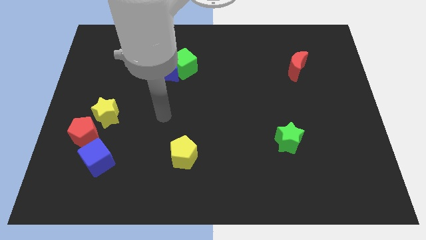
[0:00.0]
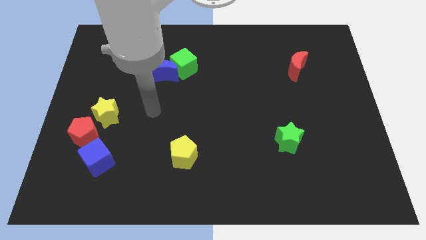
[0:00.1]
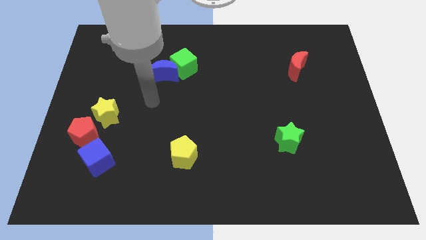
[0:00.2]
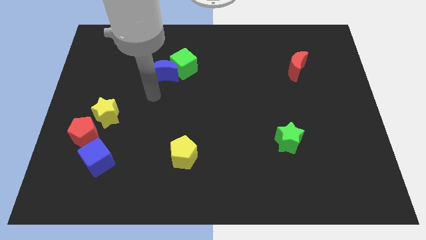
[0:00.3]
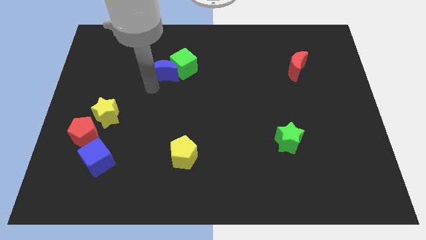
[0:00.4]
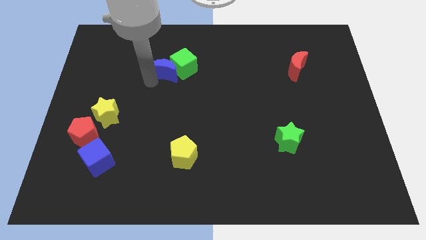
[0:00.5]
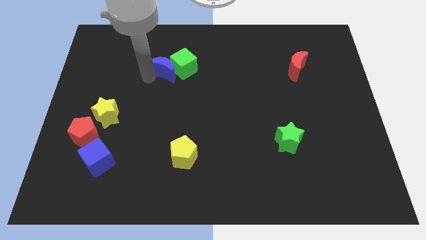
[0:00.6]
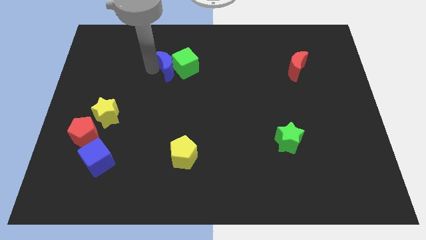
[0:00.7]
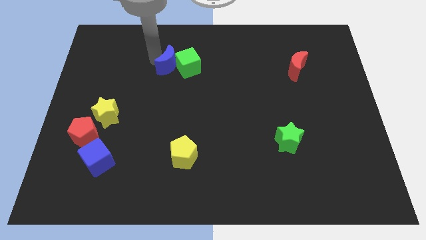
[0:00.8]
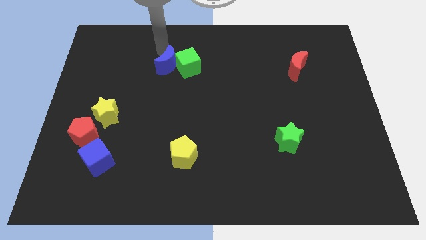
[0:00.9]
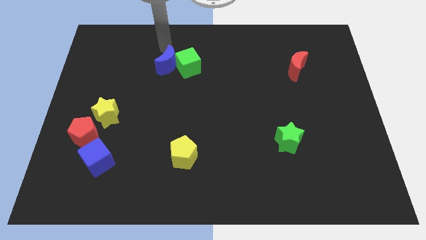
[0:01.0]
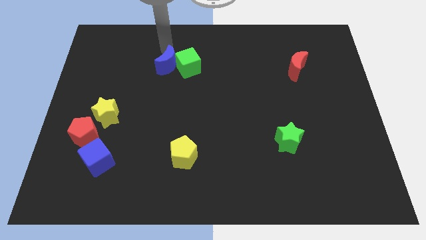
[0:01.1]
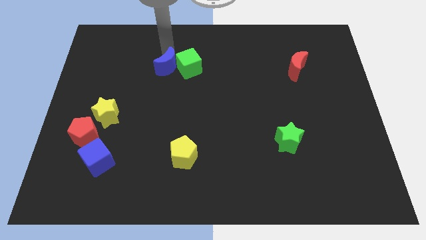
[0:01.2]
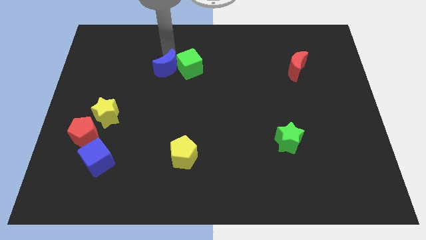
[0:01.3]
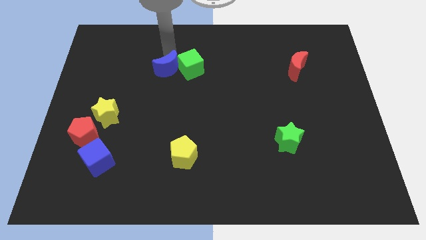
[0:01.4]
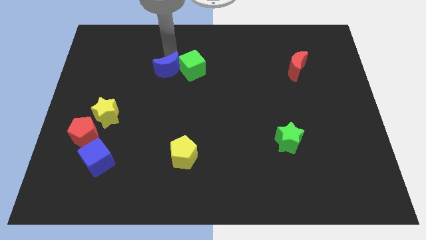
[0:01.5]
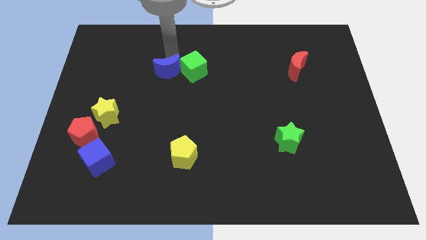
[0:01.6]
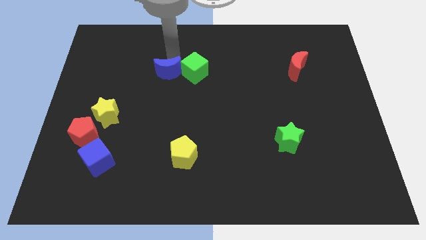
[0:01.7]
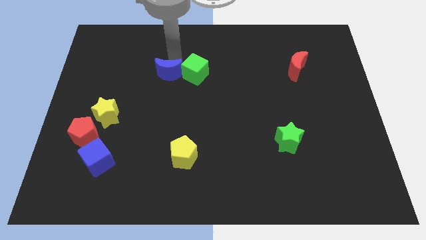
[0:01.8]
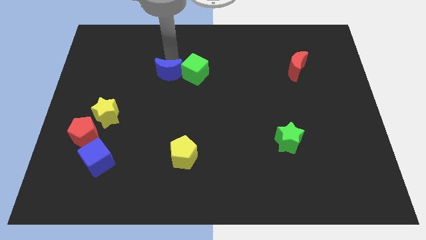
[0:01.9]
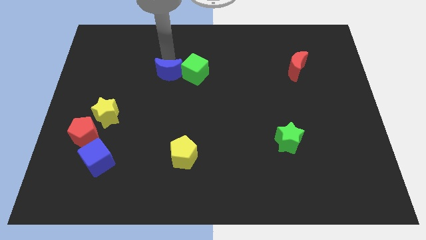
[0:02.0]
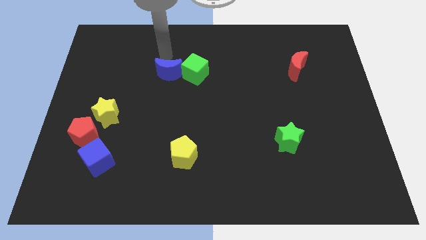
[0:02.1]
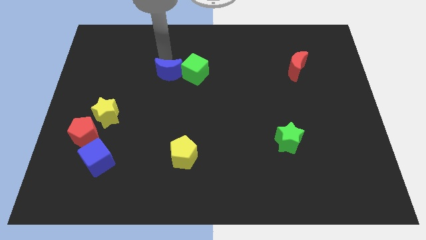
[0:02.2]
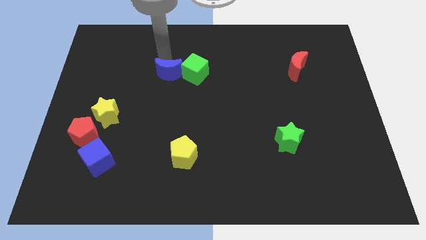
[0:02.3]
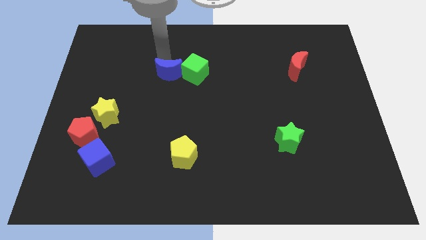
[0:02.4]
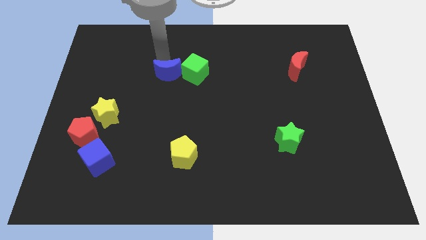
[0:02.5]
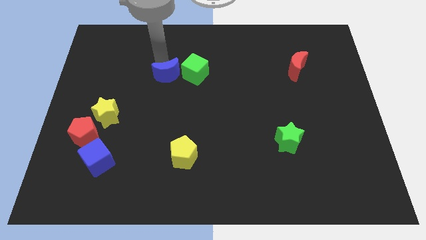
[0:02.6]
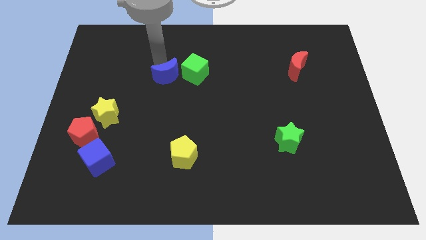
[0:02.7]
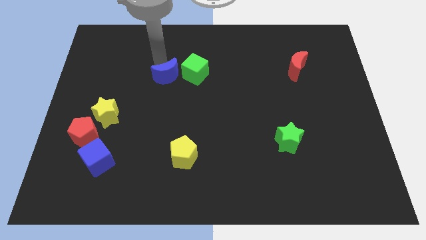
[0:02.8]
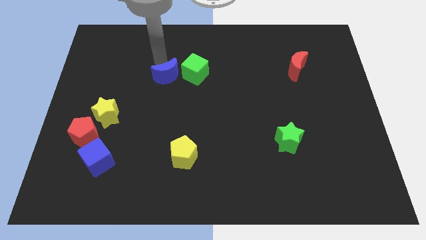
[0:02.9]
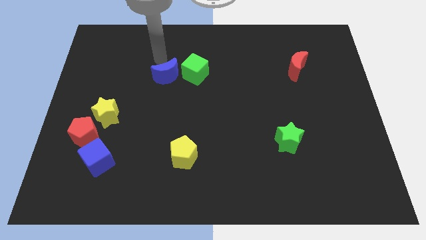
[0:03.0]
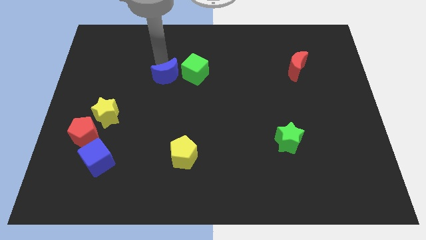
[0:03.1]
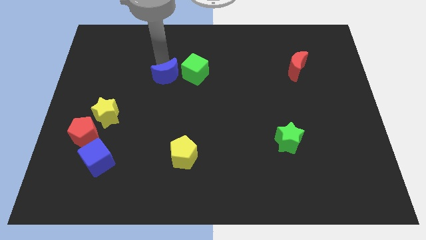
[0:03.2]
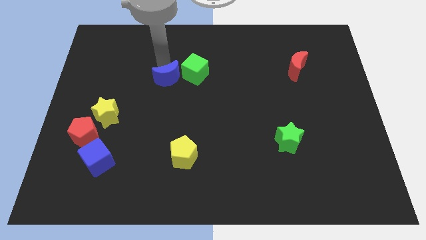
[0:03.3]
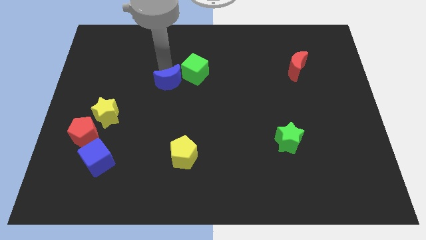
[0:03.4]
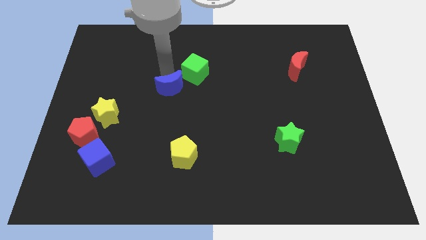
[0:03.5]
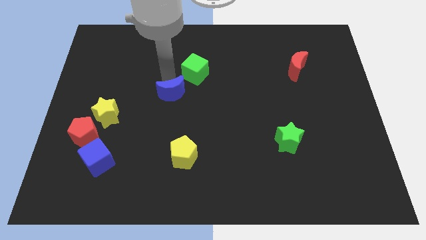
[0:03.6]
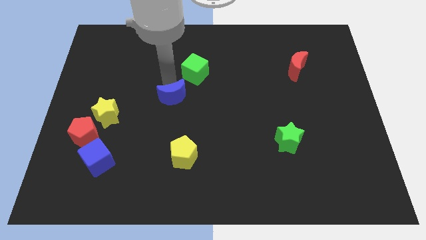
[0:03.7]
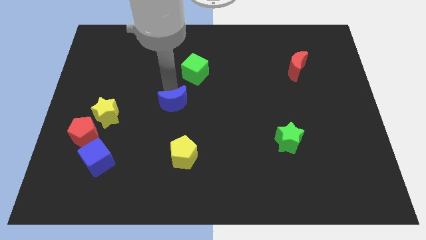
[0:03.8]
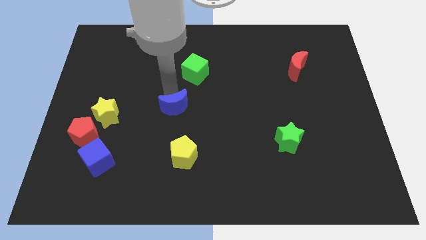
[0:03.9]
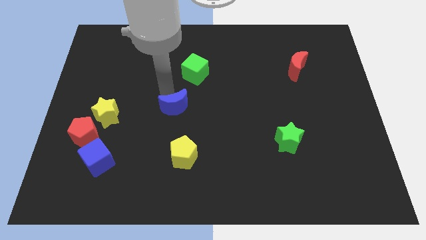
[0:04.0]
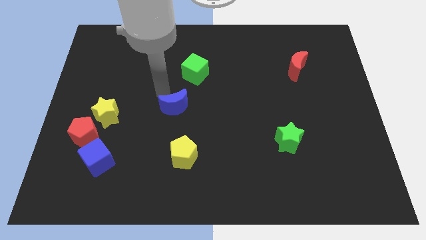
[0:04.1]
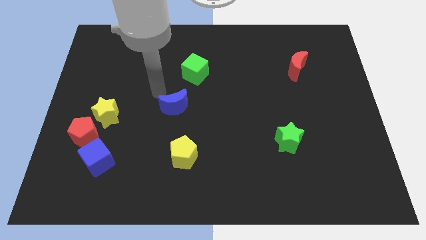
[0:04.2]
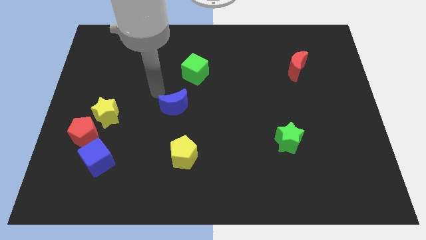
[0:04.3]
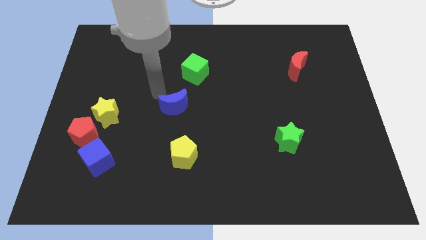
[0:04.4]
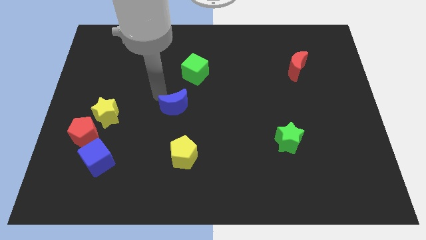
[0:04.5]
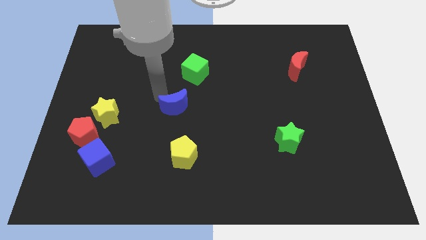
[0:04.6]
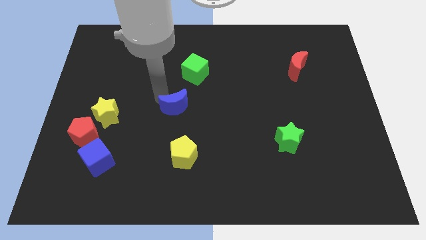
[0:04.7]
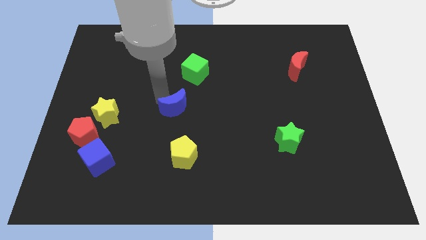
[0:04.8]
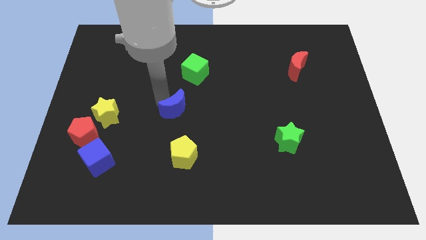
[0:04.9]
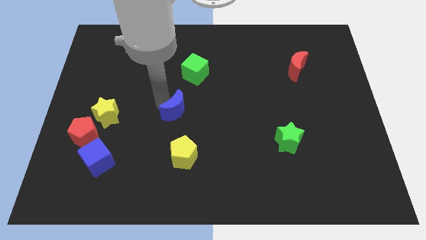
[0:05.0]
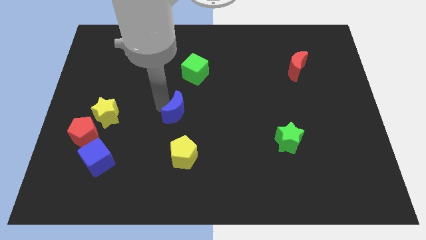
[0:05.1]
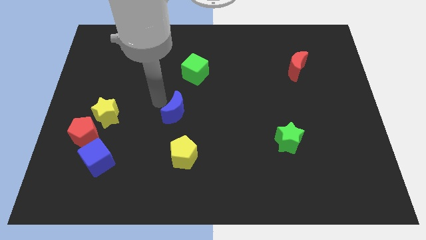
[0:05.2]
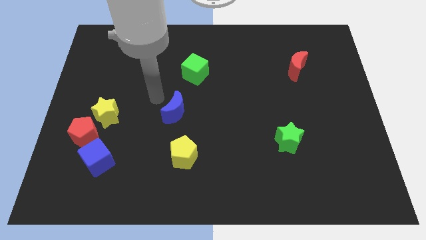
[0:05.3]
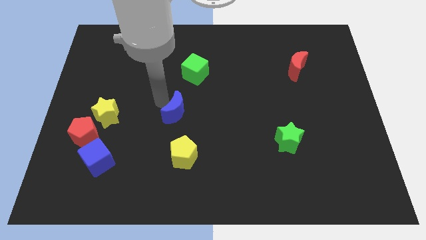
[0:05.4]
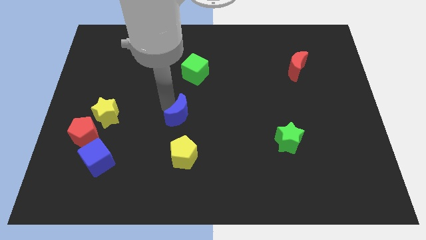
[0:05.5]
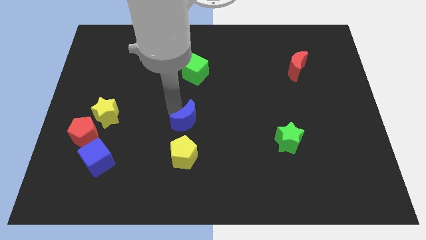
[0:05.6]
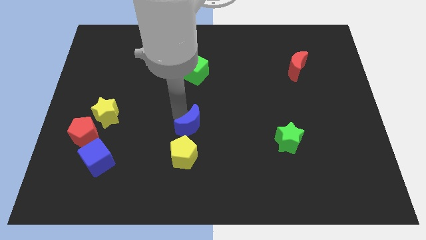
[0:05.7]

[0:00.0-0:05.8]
put the blue moon to the top right side of the yellow pentagon
